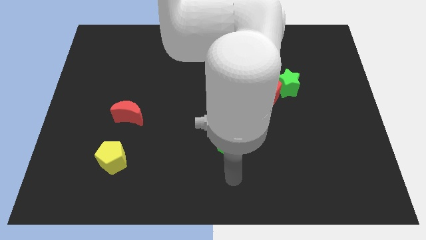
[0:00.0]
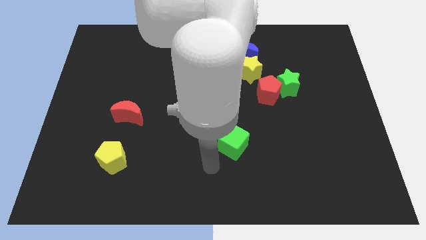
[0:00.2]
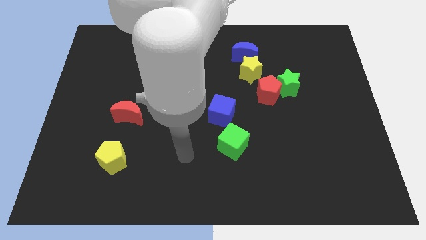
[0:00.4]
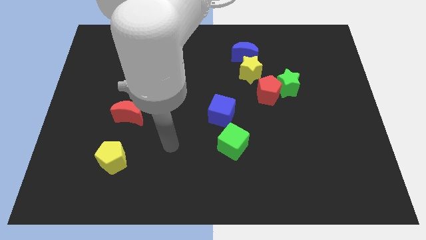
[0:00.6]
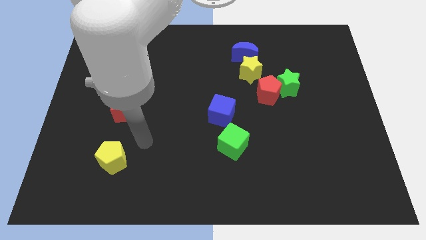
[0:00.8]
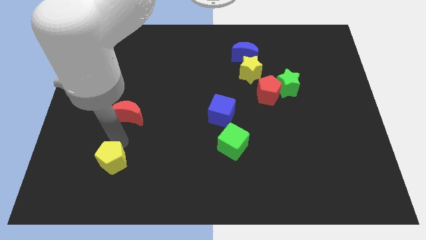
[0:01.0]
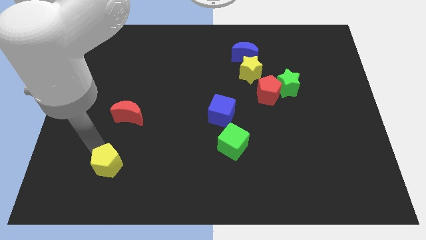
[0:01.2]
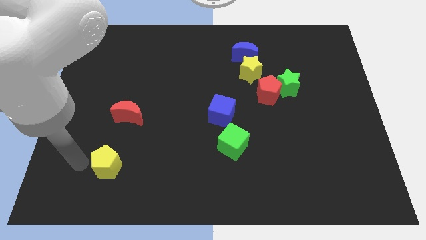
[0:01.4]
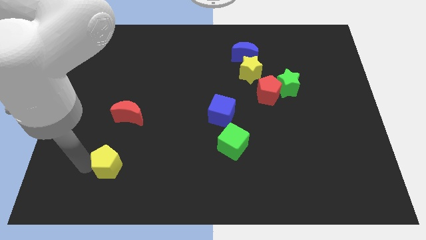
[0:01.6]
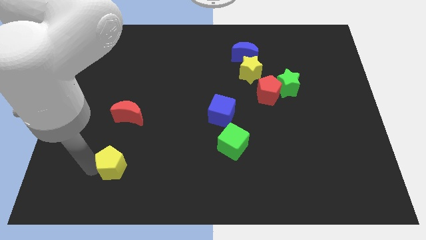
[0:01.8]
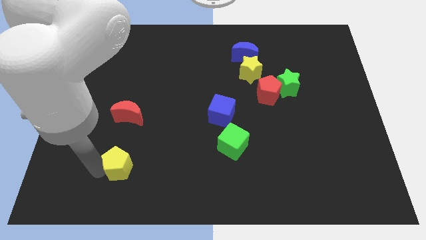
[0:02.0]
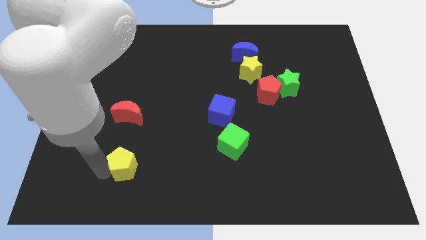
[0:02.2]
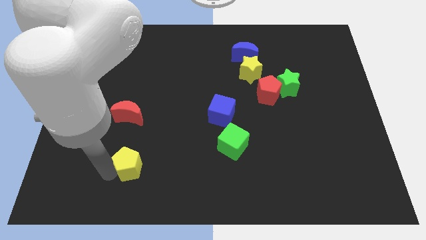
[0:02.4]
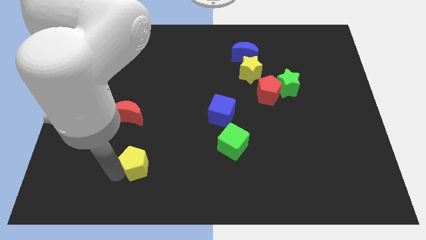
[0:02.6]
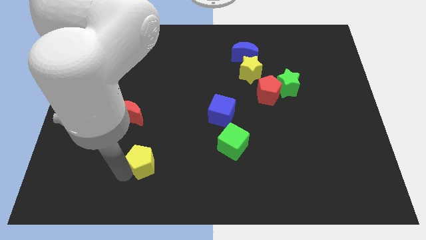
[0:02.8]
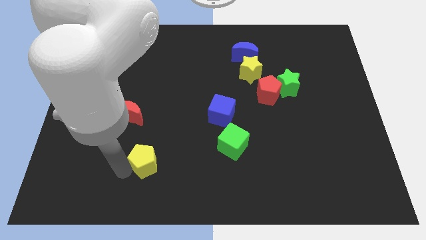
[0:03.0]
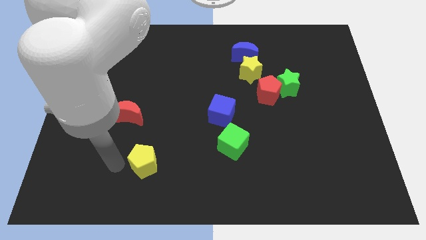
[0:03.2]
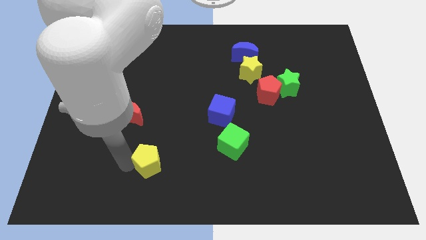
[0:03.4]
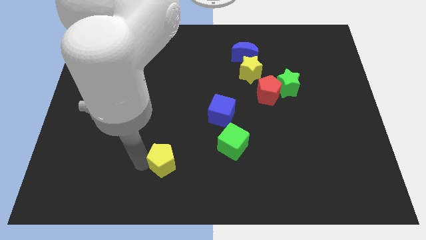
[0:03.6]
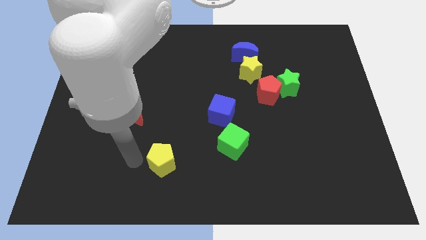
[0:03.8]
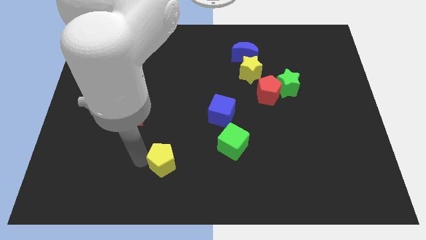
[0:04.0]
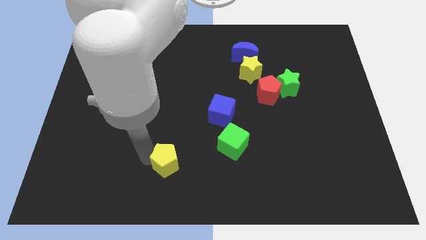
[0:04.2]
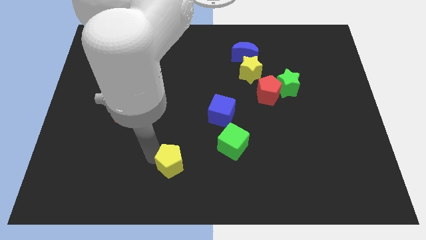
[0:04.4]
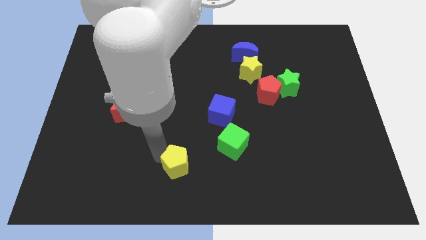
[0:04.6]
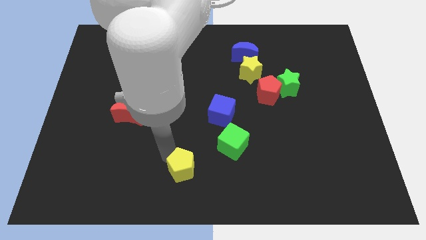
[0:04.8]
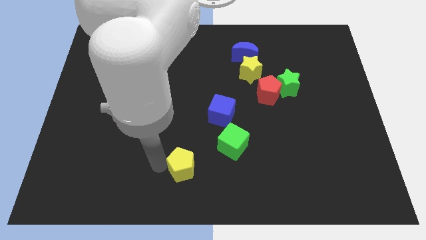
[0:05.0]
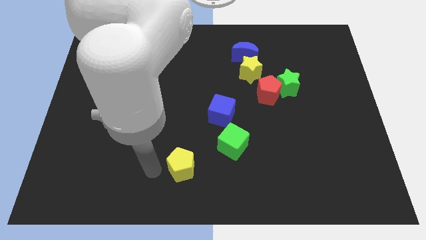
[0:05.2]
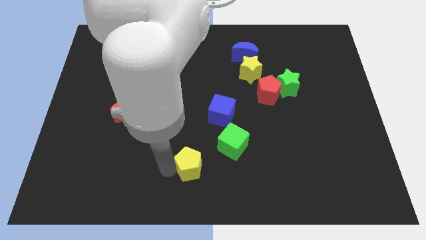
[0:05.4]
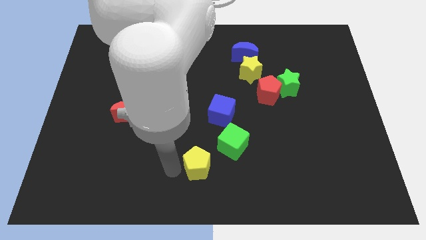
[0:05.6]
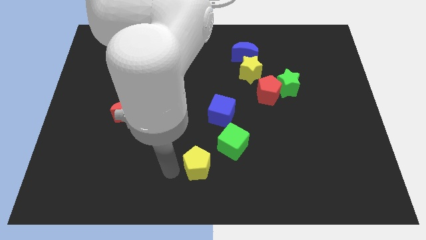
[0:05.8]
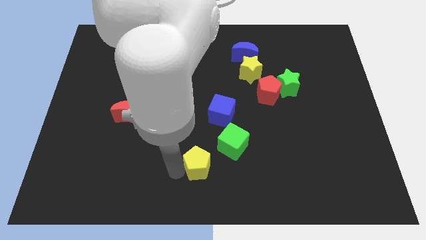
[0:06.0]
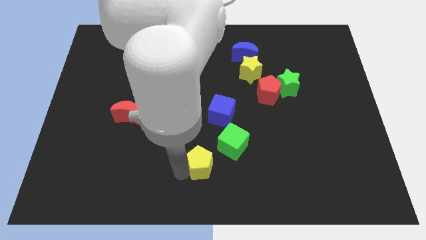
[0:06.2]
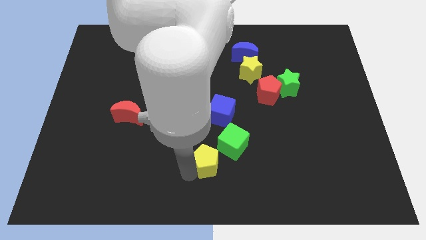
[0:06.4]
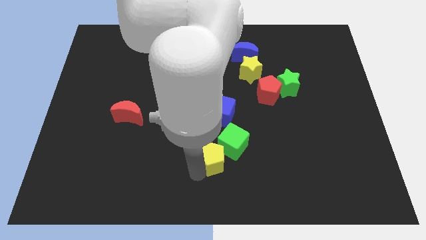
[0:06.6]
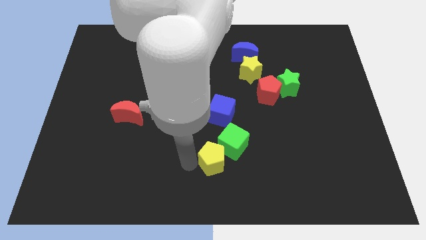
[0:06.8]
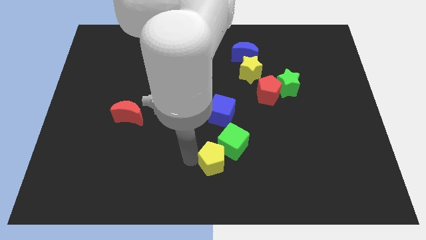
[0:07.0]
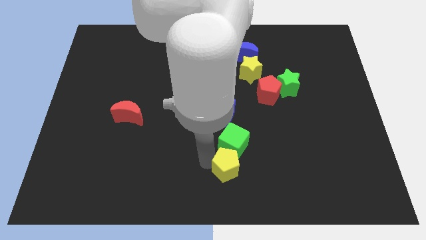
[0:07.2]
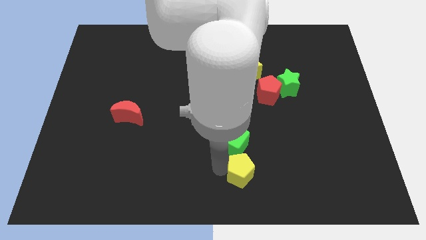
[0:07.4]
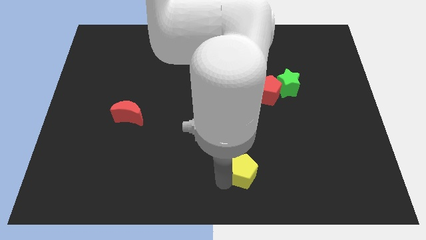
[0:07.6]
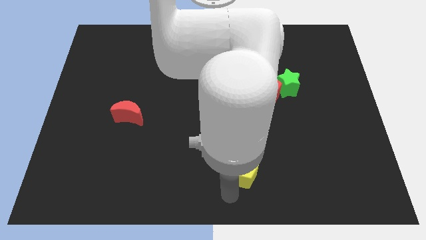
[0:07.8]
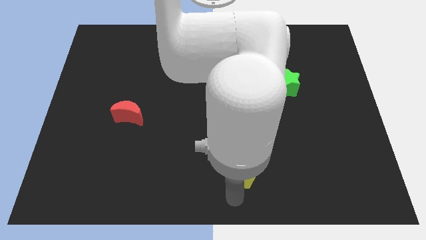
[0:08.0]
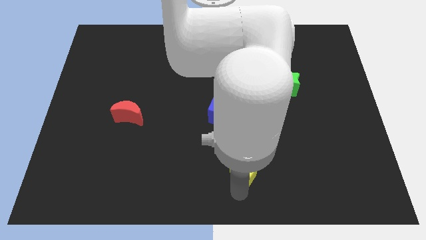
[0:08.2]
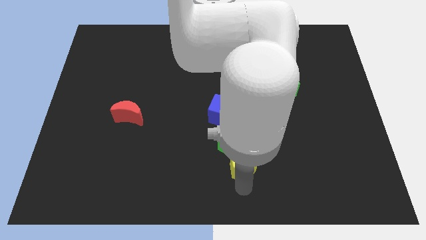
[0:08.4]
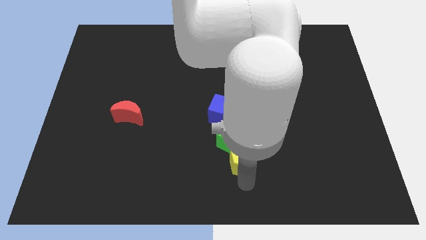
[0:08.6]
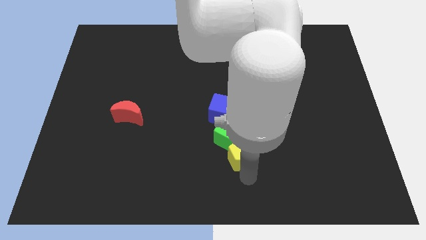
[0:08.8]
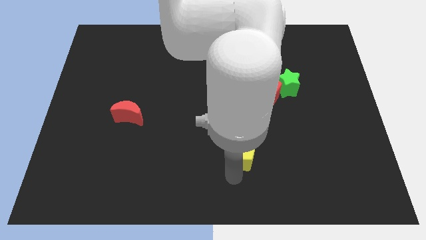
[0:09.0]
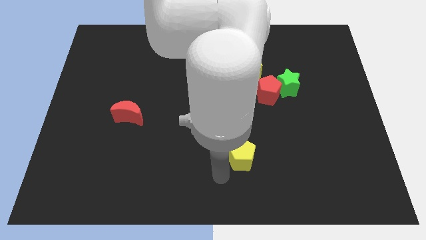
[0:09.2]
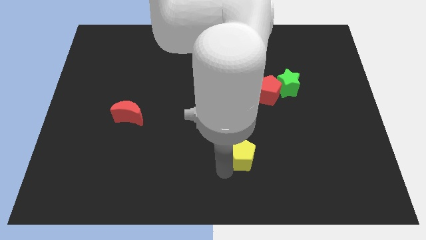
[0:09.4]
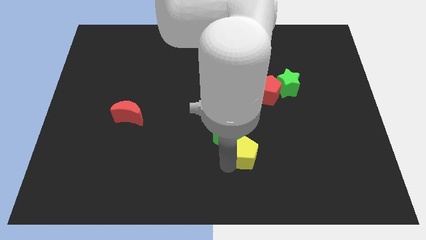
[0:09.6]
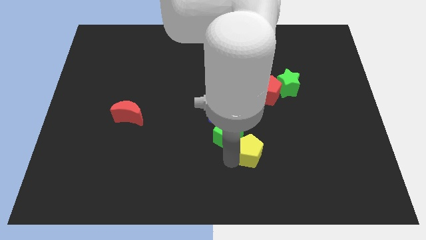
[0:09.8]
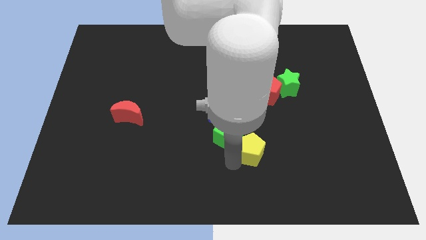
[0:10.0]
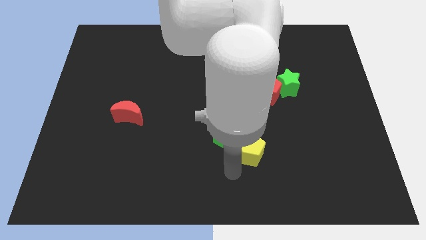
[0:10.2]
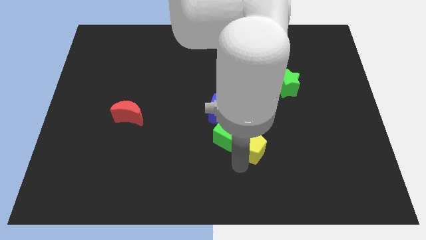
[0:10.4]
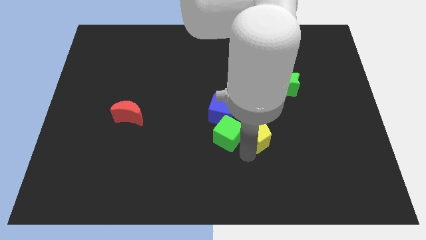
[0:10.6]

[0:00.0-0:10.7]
put the yellow pentagon below the red pentagon
